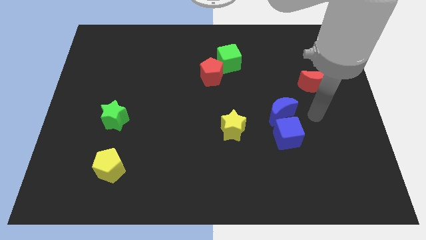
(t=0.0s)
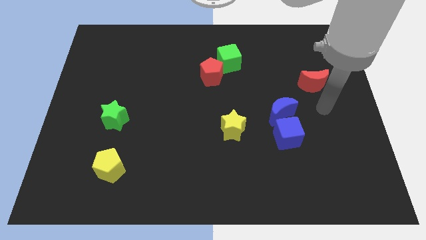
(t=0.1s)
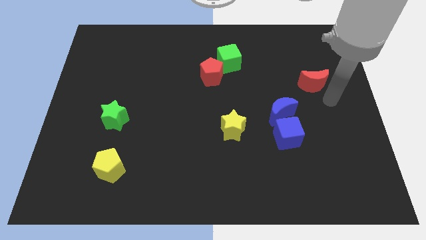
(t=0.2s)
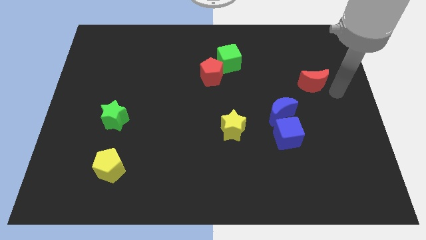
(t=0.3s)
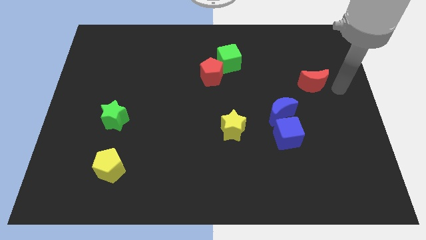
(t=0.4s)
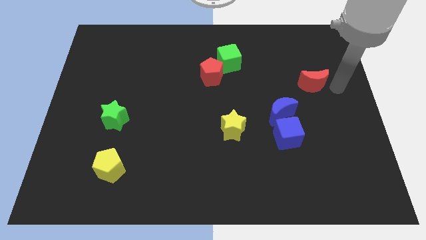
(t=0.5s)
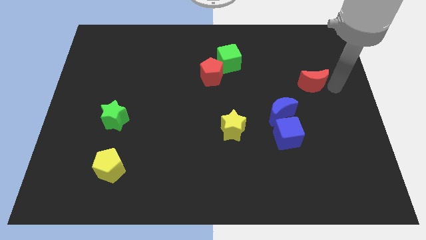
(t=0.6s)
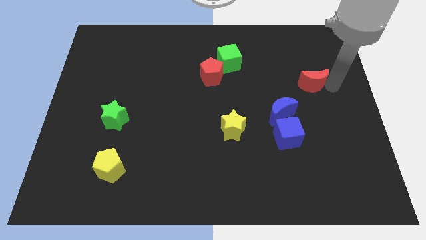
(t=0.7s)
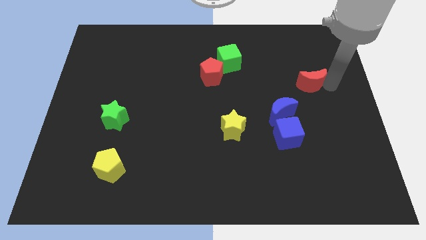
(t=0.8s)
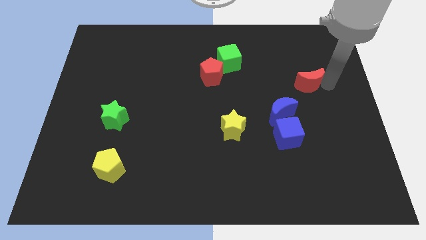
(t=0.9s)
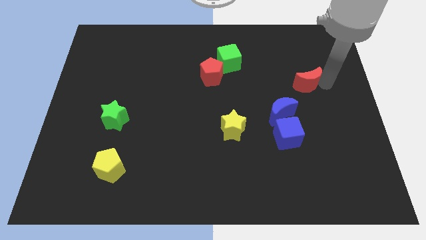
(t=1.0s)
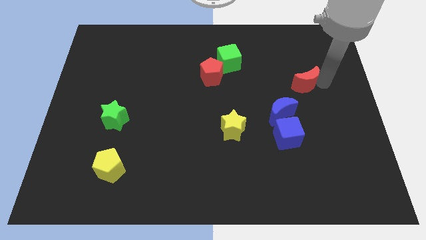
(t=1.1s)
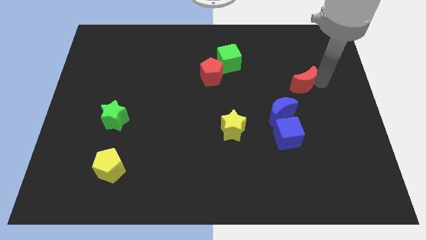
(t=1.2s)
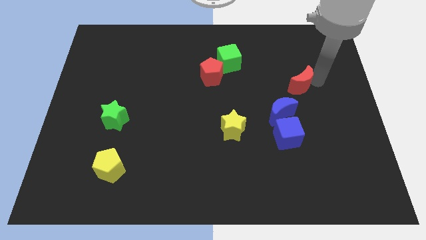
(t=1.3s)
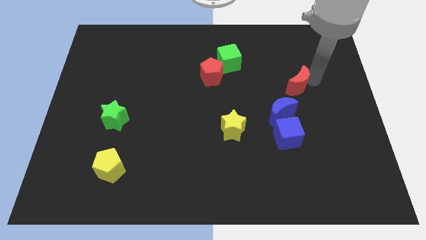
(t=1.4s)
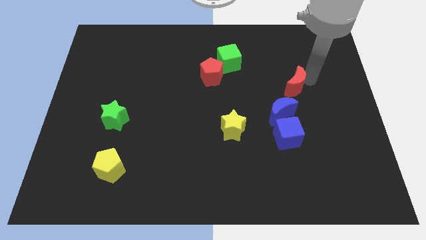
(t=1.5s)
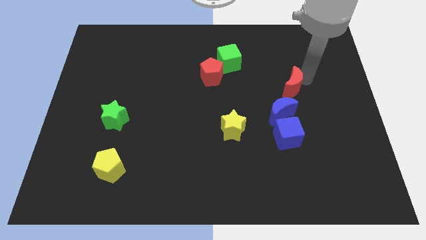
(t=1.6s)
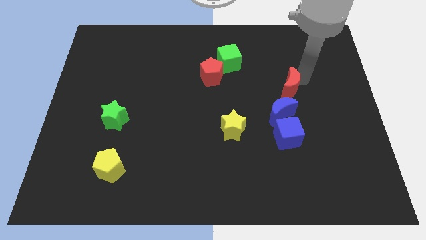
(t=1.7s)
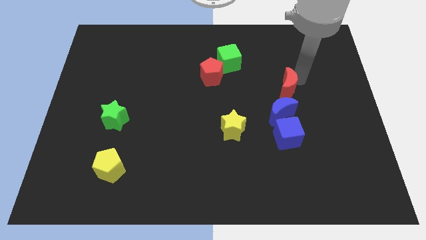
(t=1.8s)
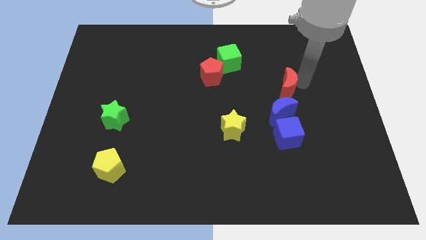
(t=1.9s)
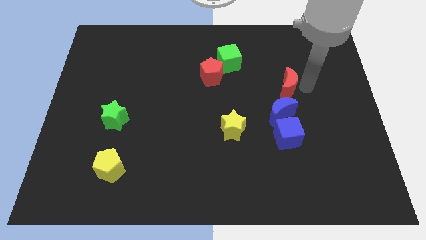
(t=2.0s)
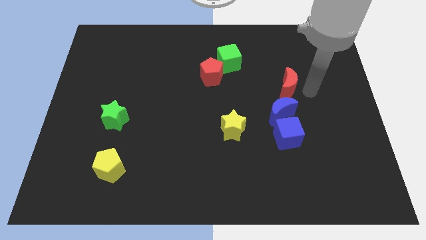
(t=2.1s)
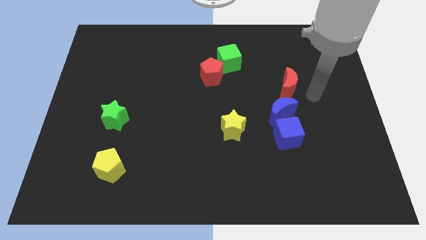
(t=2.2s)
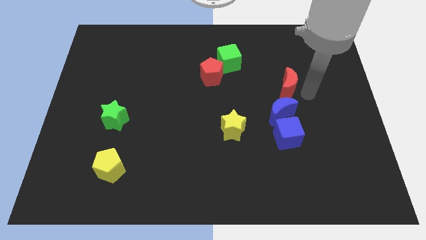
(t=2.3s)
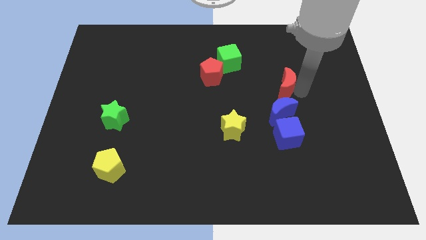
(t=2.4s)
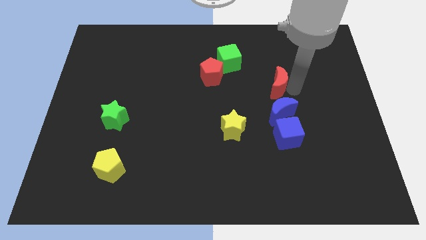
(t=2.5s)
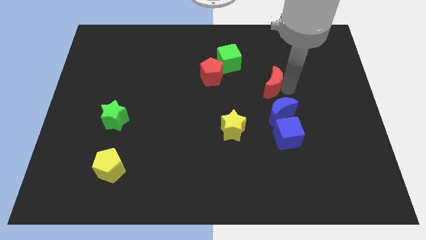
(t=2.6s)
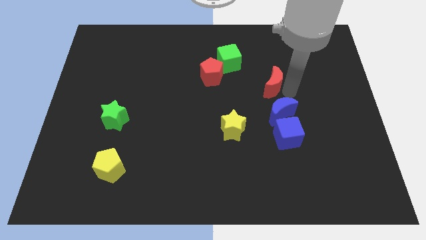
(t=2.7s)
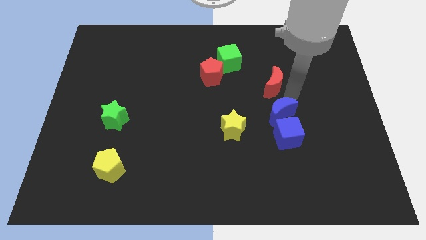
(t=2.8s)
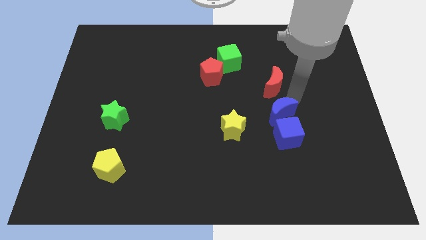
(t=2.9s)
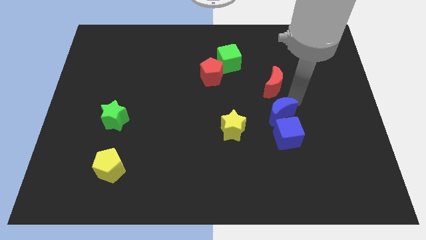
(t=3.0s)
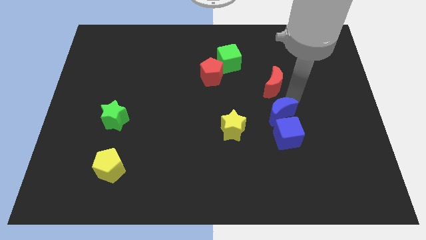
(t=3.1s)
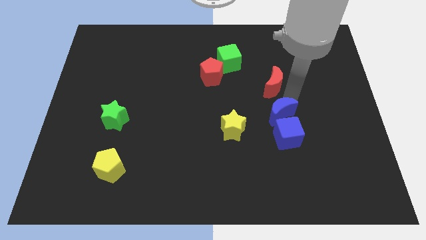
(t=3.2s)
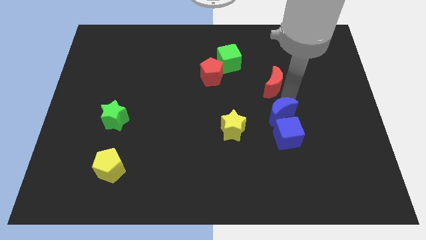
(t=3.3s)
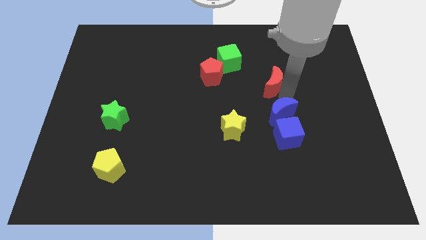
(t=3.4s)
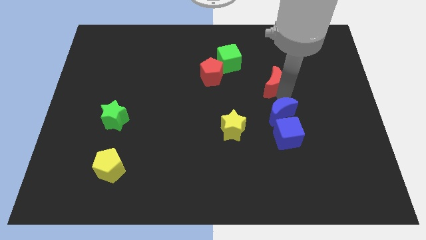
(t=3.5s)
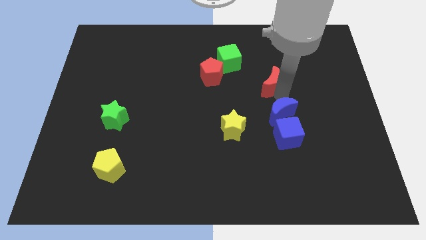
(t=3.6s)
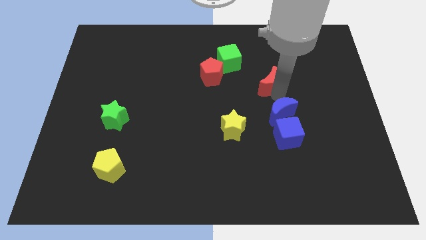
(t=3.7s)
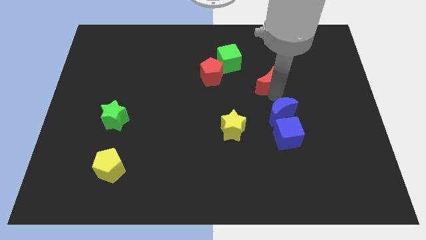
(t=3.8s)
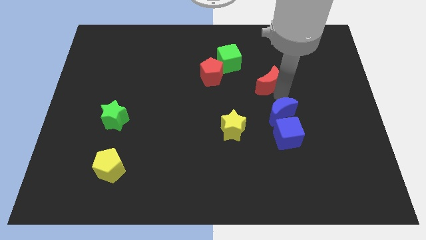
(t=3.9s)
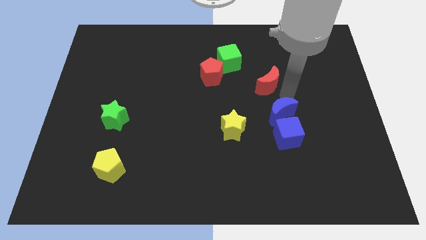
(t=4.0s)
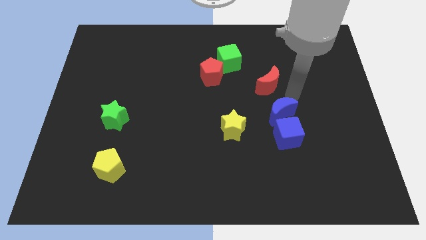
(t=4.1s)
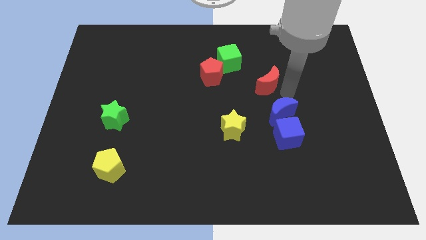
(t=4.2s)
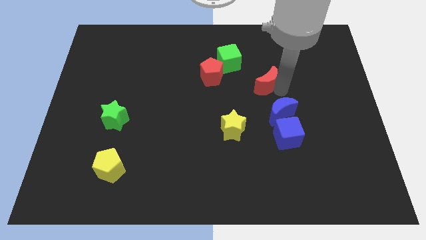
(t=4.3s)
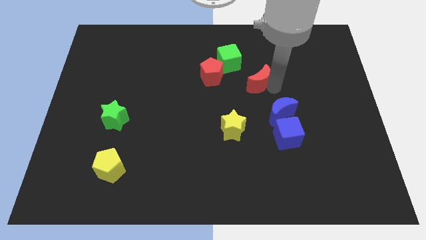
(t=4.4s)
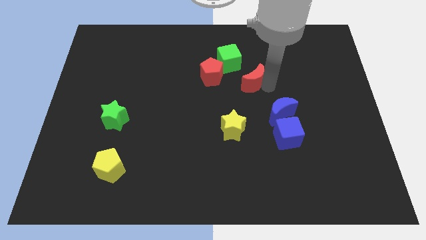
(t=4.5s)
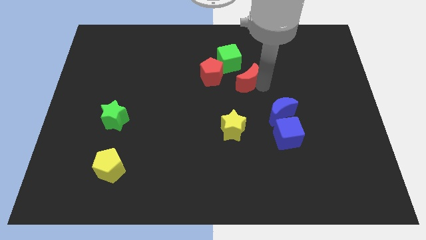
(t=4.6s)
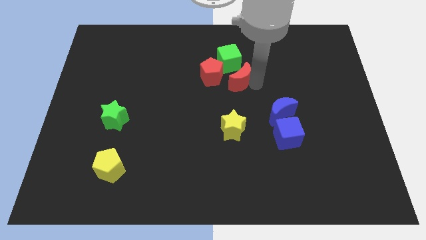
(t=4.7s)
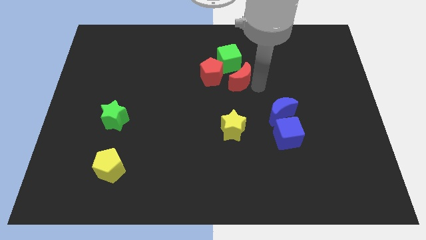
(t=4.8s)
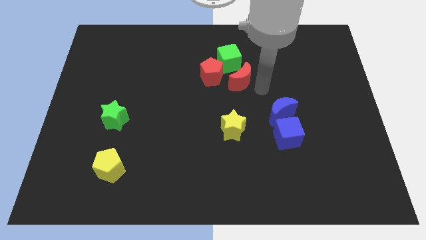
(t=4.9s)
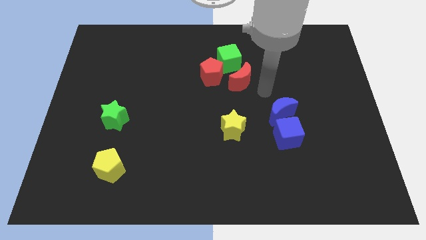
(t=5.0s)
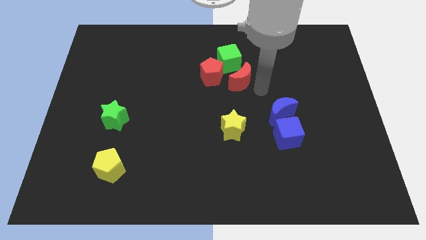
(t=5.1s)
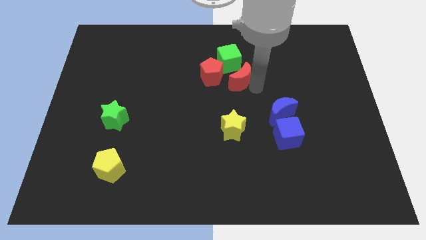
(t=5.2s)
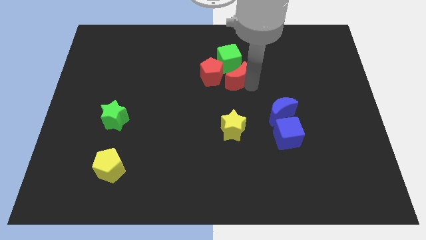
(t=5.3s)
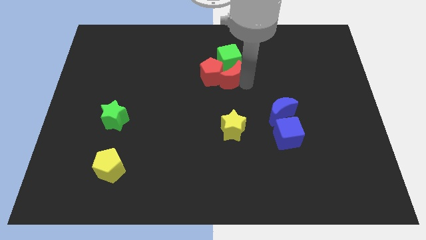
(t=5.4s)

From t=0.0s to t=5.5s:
move the red moon close to the red pentagon

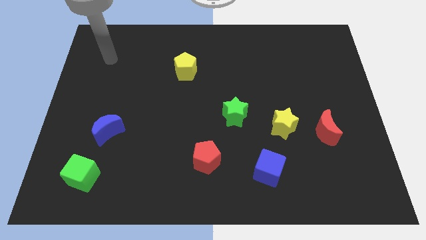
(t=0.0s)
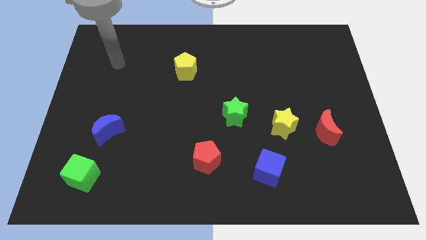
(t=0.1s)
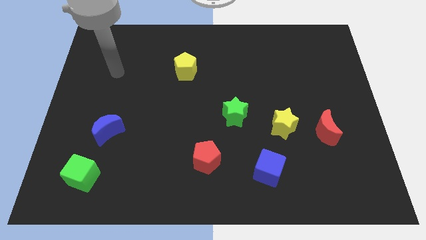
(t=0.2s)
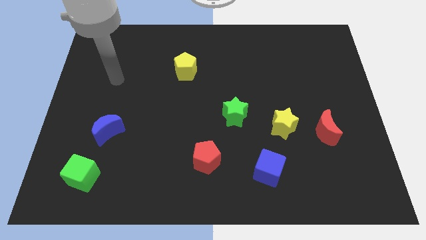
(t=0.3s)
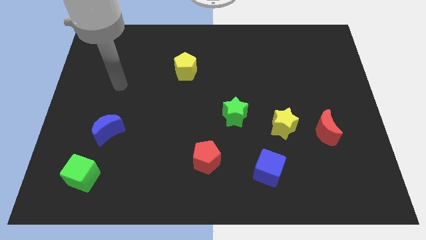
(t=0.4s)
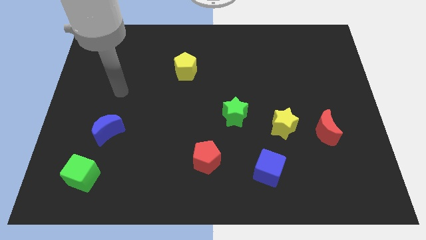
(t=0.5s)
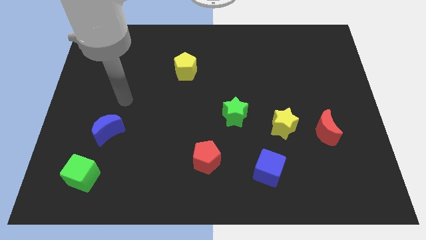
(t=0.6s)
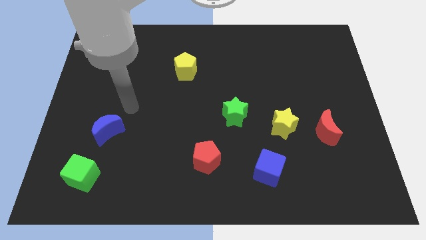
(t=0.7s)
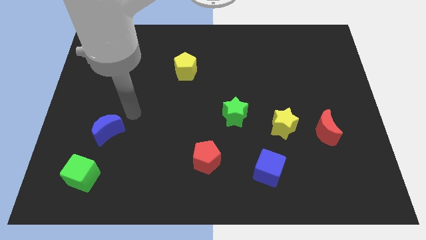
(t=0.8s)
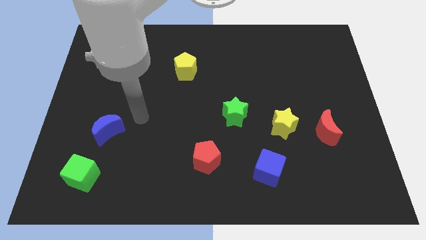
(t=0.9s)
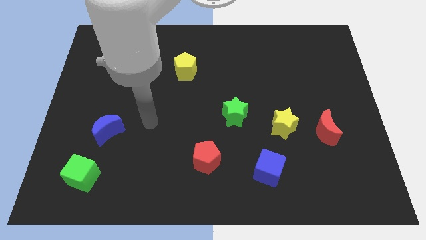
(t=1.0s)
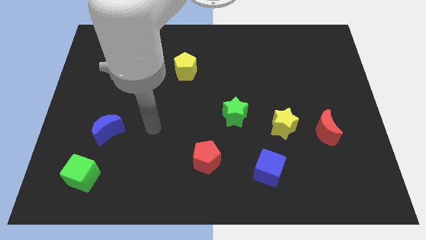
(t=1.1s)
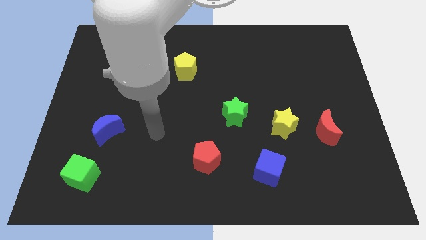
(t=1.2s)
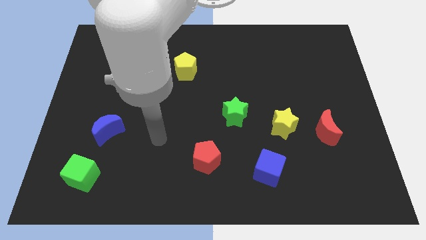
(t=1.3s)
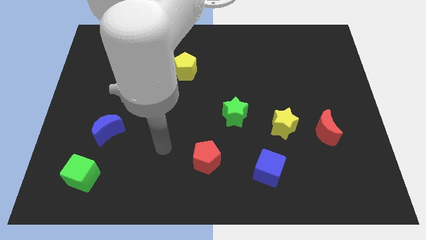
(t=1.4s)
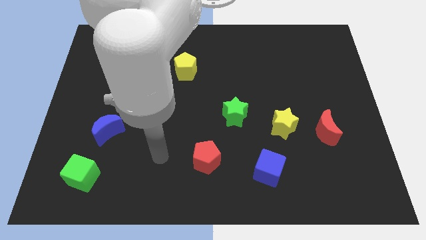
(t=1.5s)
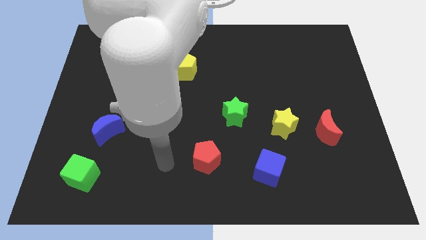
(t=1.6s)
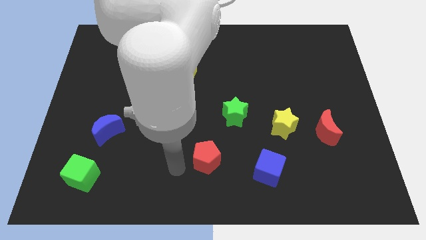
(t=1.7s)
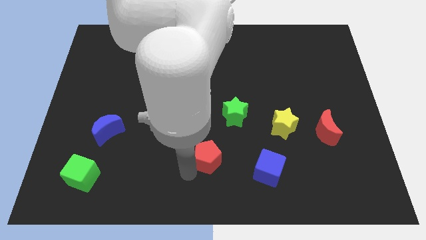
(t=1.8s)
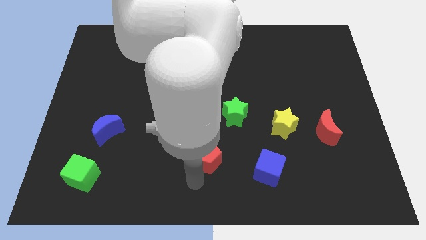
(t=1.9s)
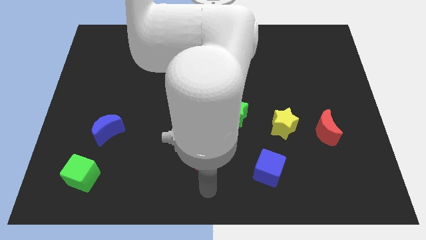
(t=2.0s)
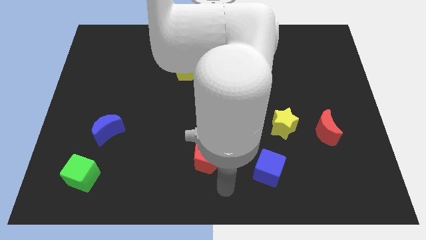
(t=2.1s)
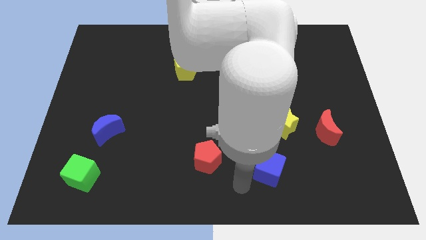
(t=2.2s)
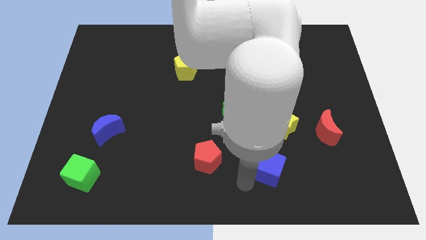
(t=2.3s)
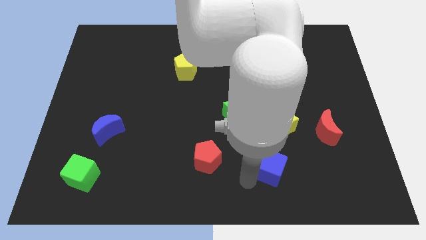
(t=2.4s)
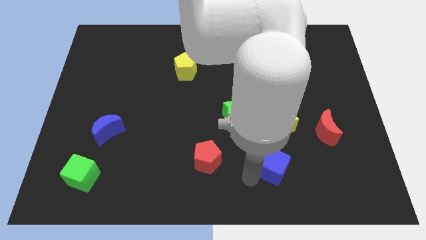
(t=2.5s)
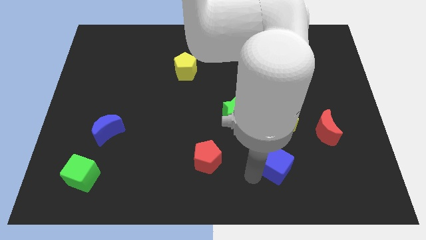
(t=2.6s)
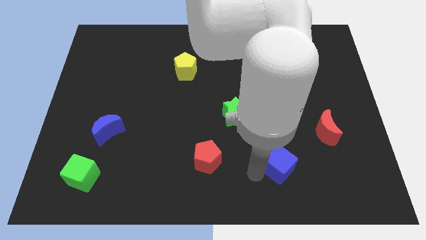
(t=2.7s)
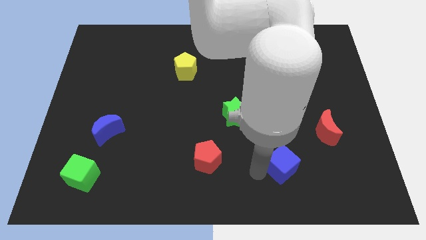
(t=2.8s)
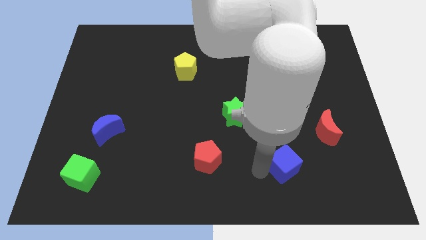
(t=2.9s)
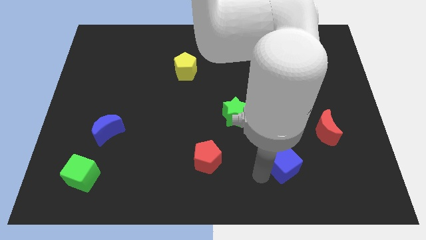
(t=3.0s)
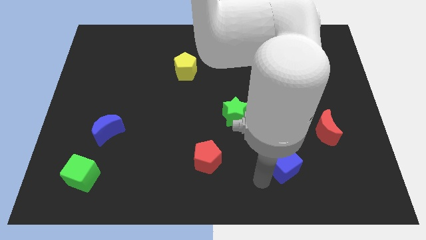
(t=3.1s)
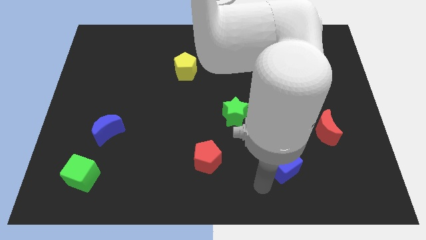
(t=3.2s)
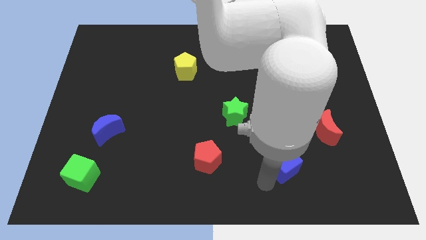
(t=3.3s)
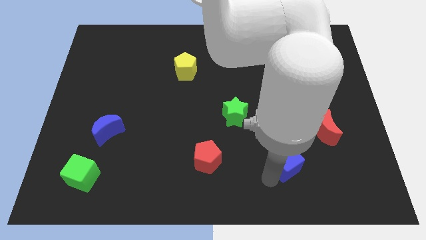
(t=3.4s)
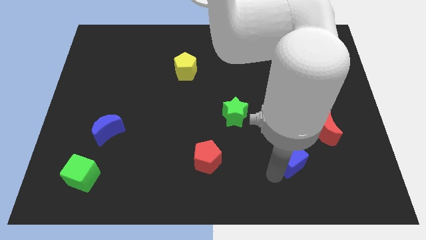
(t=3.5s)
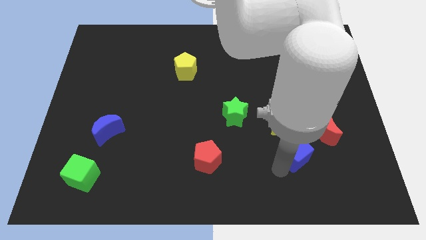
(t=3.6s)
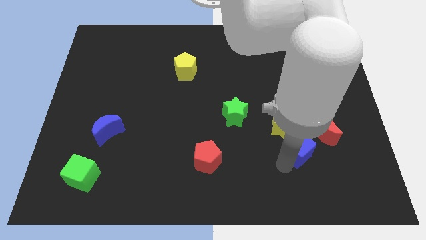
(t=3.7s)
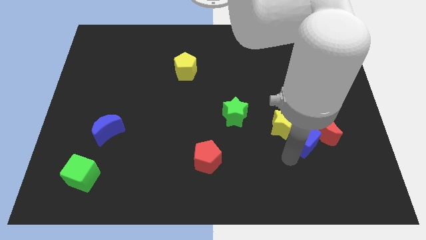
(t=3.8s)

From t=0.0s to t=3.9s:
put the blue cube towards the red moon
